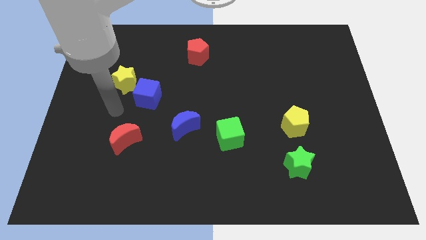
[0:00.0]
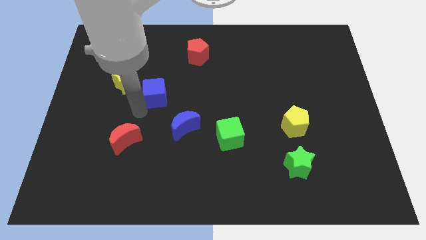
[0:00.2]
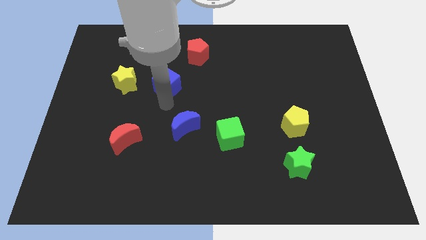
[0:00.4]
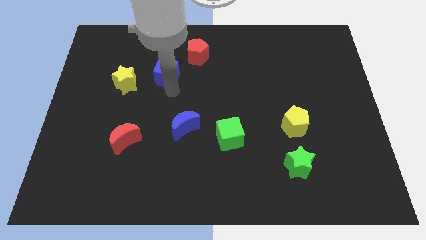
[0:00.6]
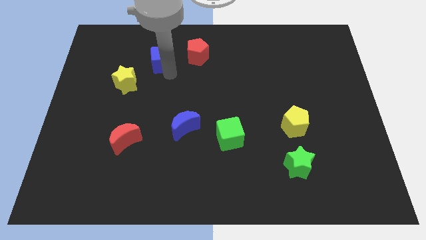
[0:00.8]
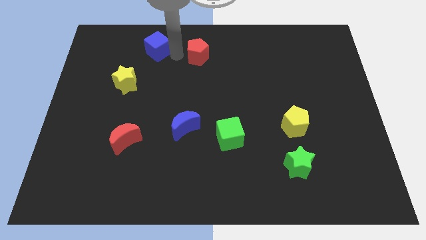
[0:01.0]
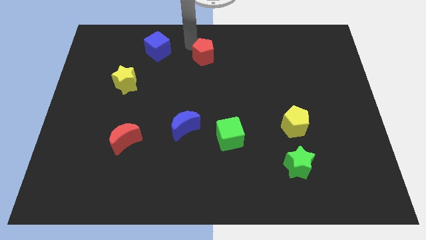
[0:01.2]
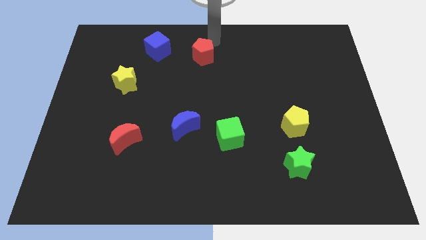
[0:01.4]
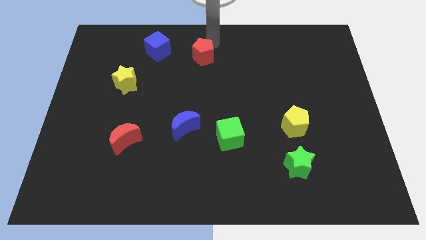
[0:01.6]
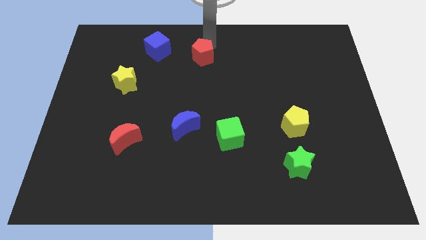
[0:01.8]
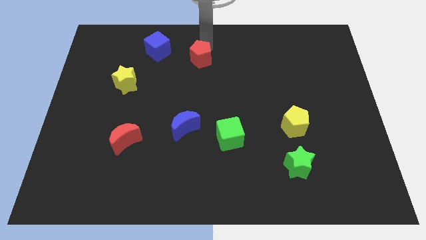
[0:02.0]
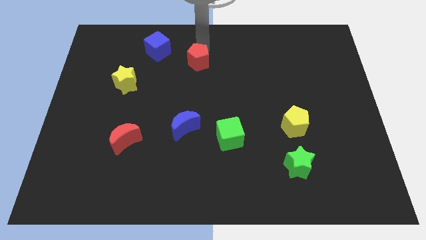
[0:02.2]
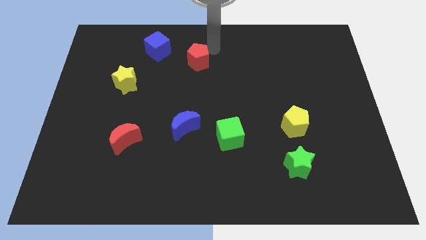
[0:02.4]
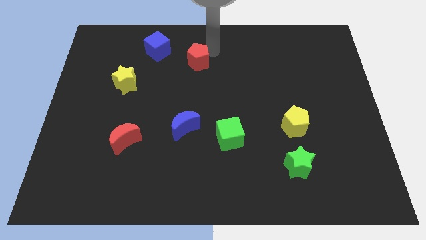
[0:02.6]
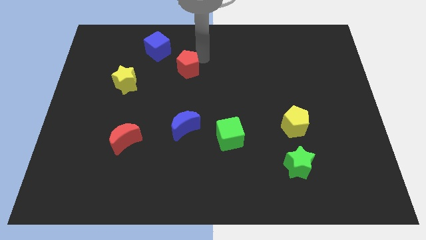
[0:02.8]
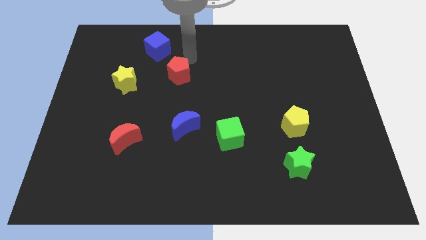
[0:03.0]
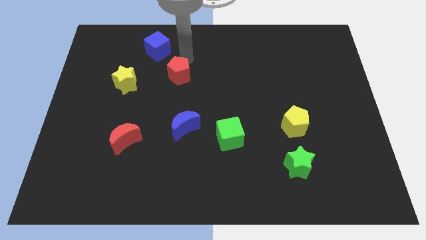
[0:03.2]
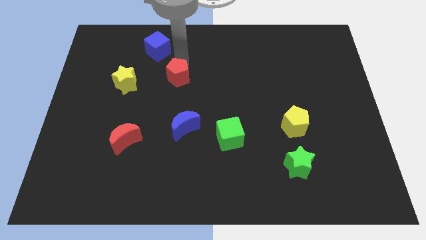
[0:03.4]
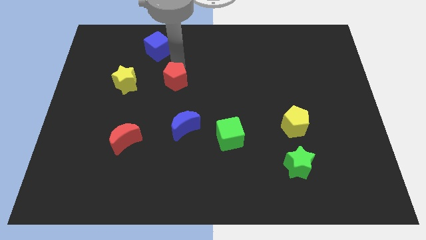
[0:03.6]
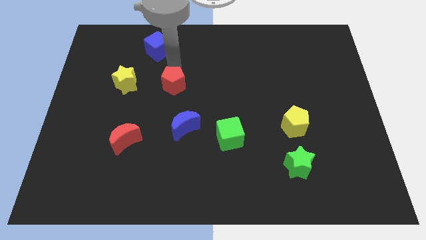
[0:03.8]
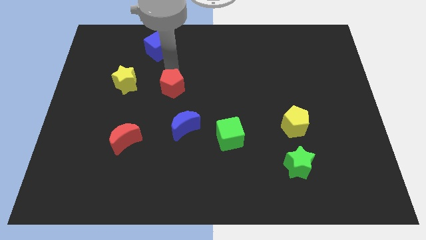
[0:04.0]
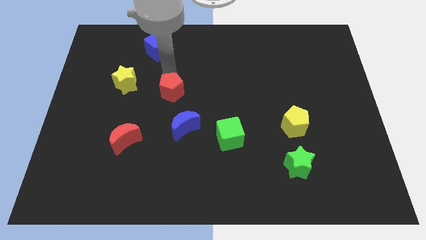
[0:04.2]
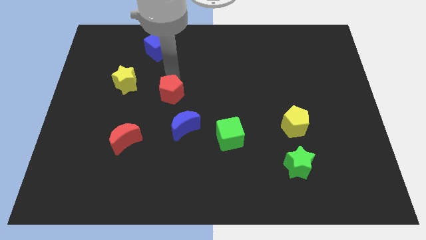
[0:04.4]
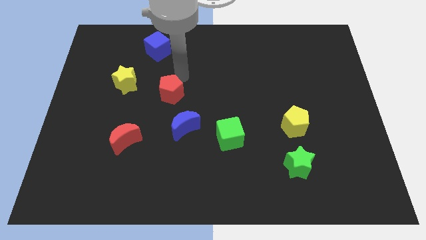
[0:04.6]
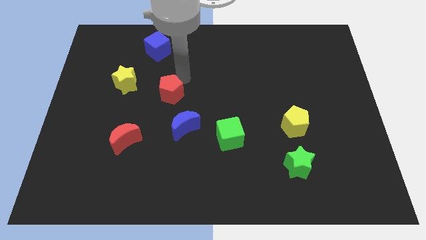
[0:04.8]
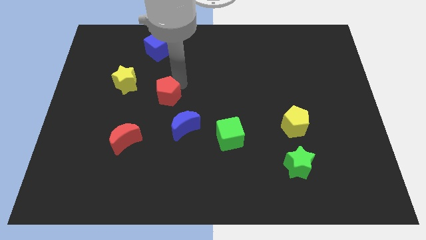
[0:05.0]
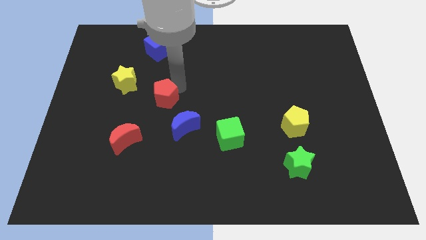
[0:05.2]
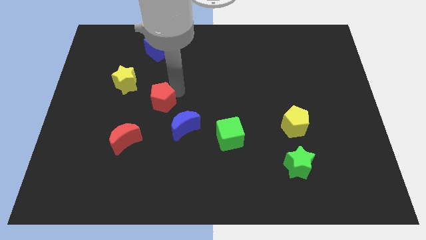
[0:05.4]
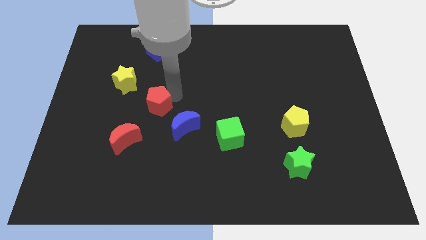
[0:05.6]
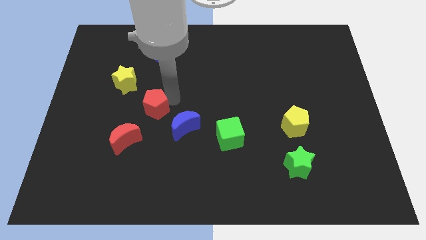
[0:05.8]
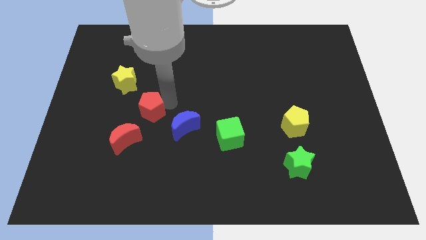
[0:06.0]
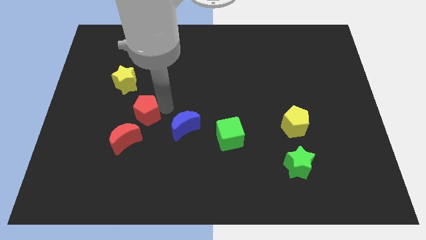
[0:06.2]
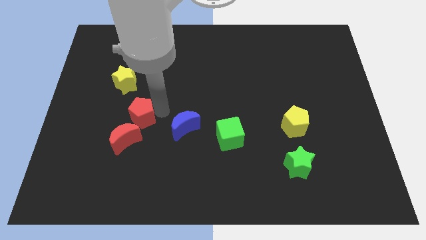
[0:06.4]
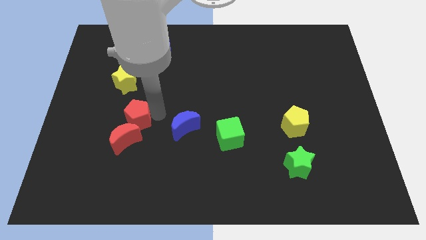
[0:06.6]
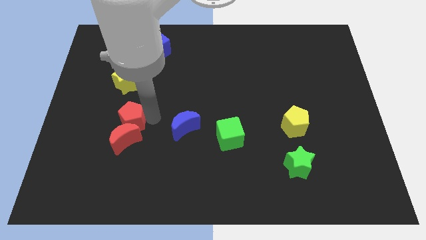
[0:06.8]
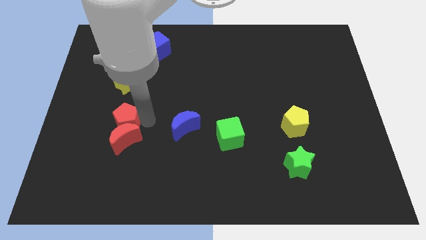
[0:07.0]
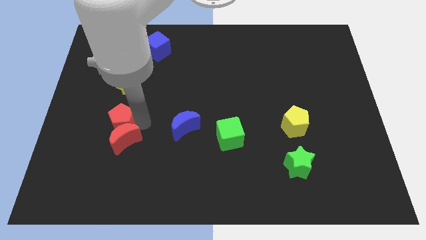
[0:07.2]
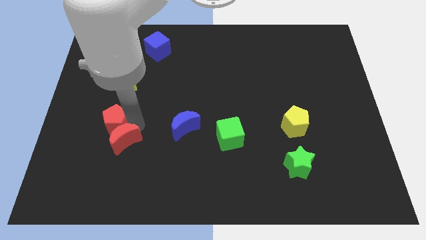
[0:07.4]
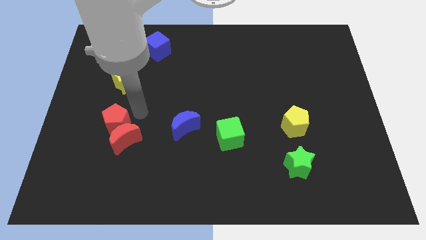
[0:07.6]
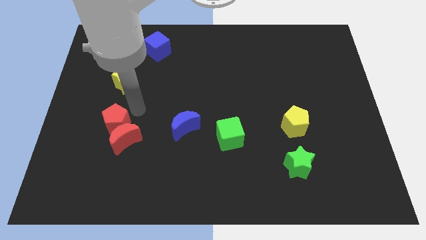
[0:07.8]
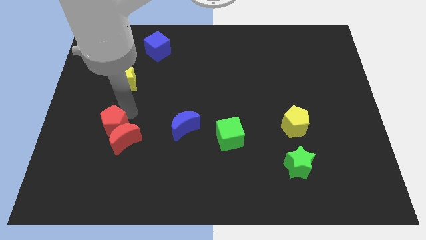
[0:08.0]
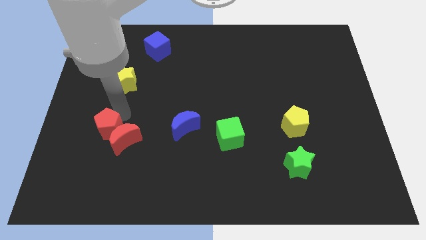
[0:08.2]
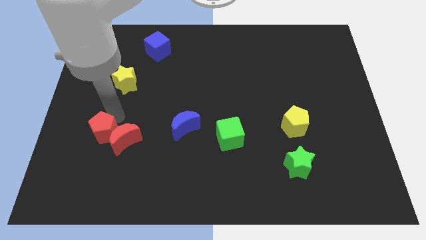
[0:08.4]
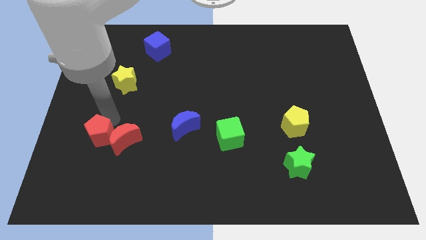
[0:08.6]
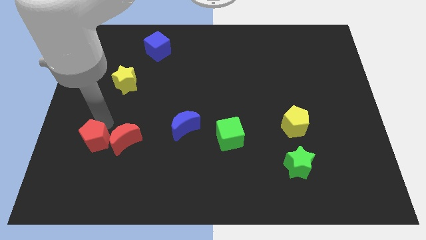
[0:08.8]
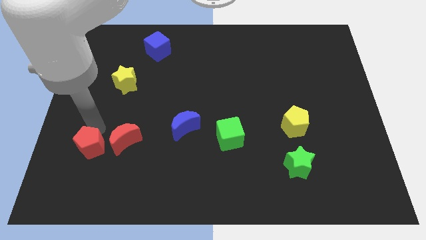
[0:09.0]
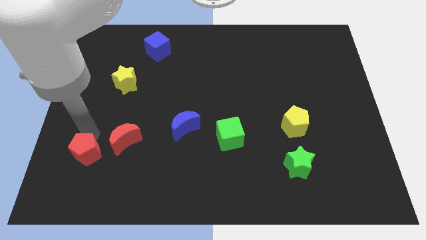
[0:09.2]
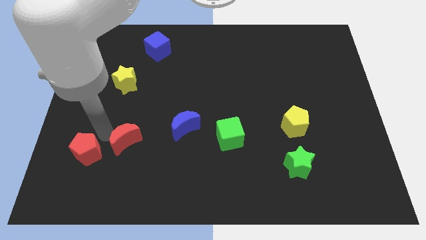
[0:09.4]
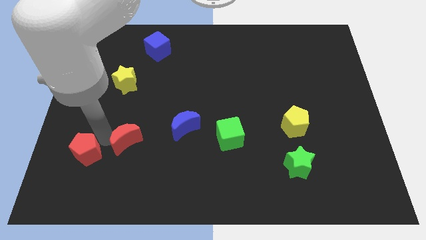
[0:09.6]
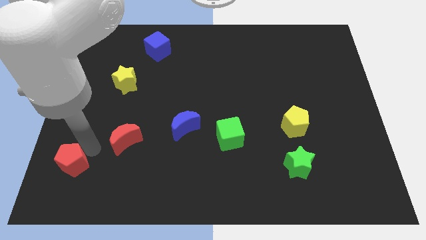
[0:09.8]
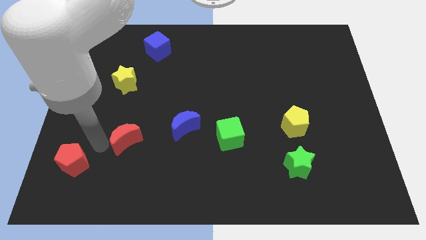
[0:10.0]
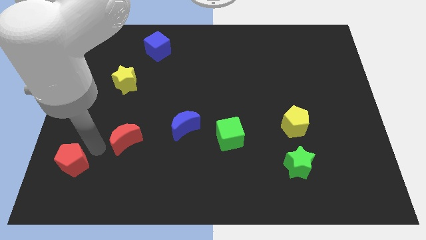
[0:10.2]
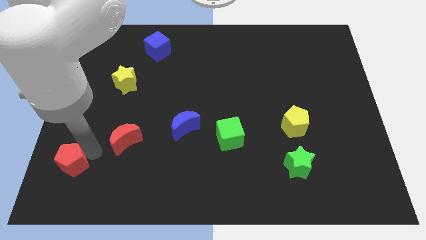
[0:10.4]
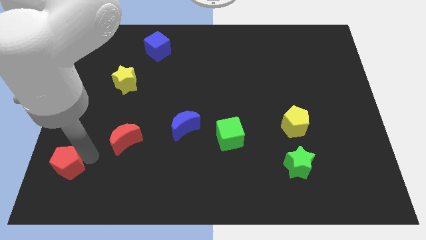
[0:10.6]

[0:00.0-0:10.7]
put the red pentagon to the lower left corner
